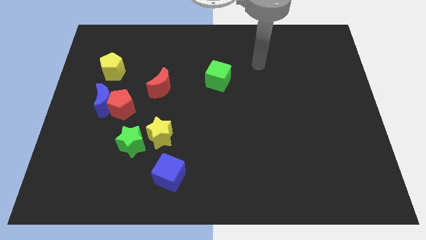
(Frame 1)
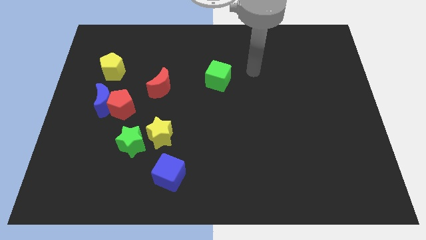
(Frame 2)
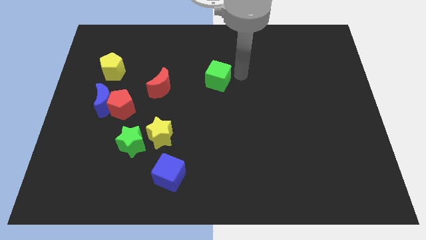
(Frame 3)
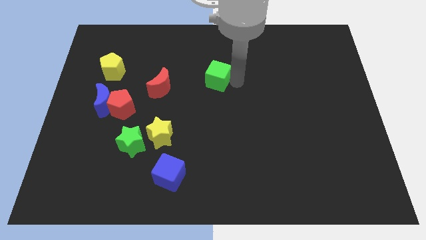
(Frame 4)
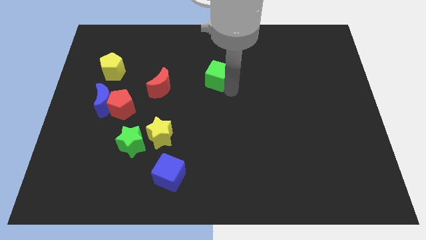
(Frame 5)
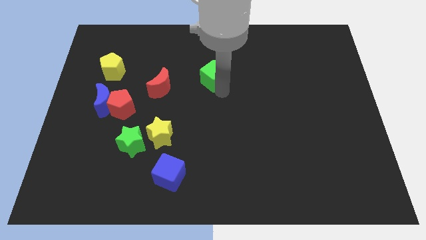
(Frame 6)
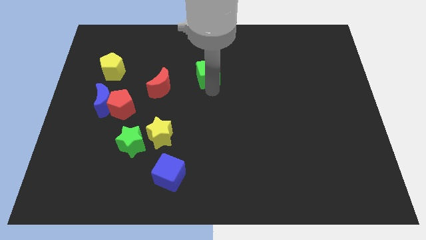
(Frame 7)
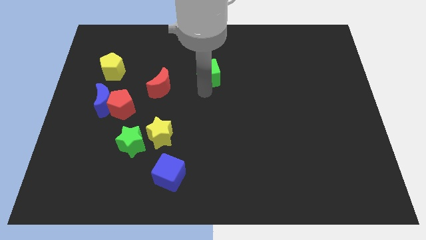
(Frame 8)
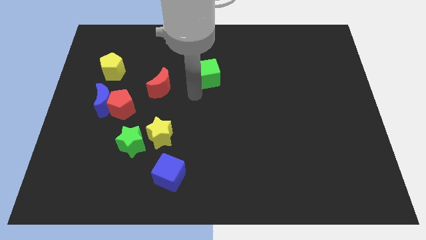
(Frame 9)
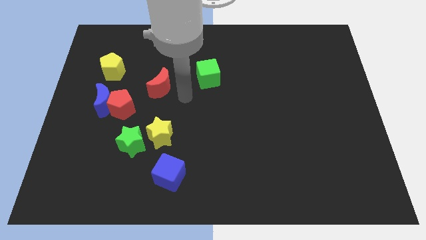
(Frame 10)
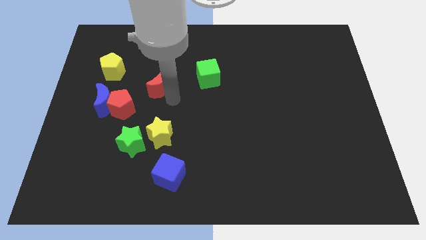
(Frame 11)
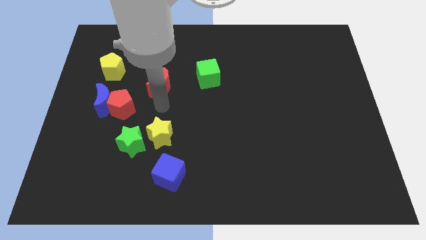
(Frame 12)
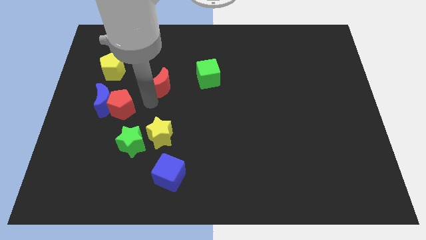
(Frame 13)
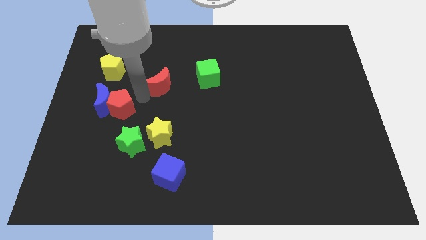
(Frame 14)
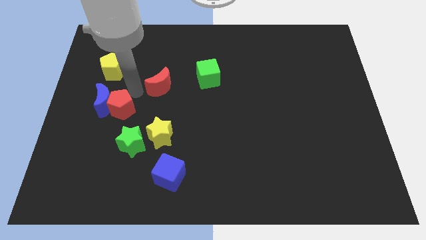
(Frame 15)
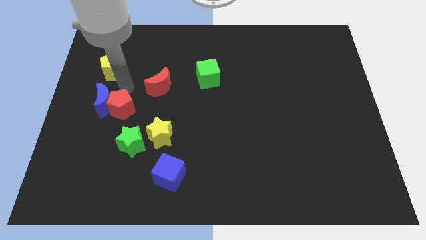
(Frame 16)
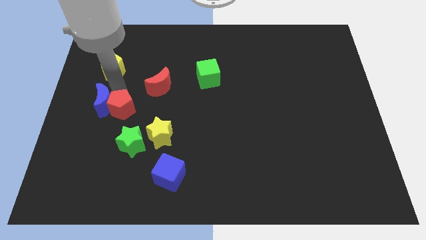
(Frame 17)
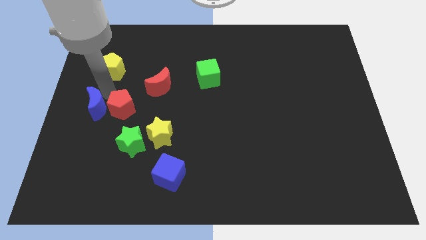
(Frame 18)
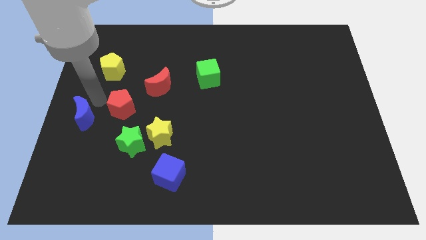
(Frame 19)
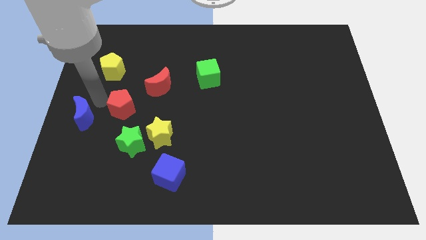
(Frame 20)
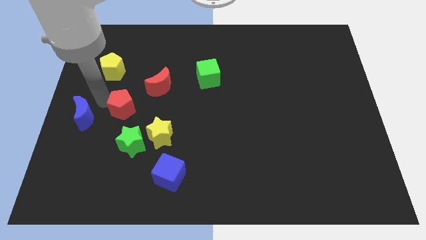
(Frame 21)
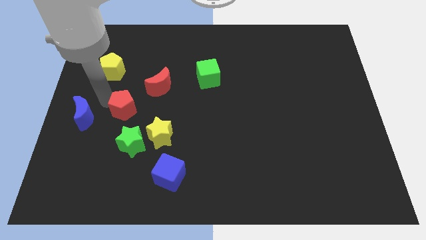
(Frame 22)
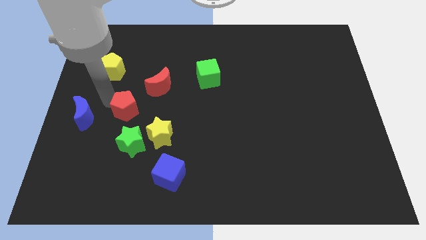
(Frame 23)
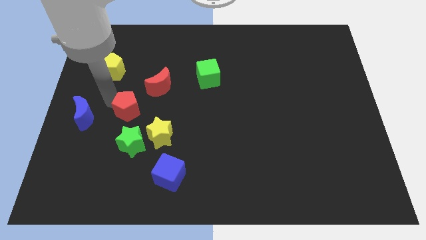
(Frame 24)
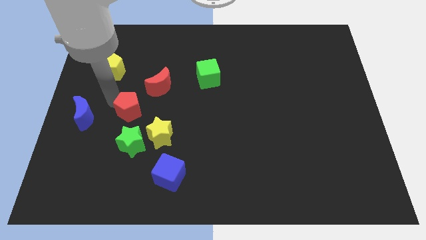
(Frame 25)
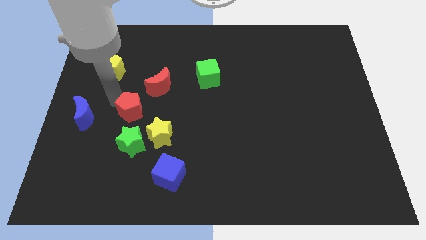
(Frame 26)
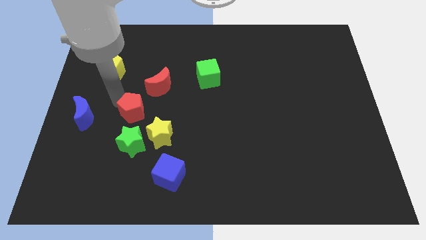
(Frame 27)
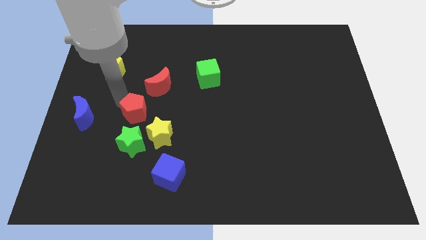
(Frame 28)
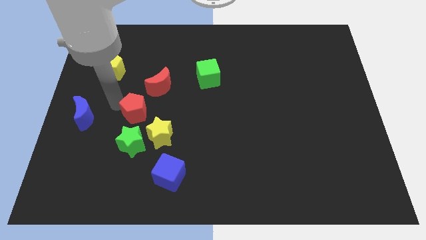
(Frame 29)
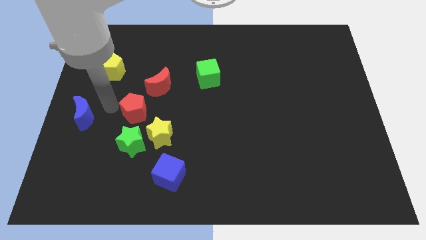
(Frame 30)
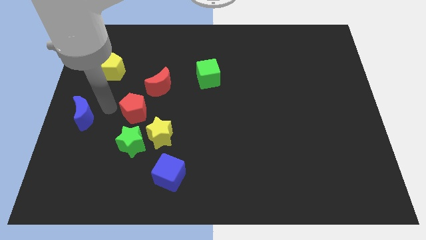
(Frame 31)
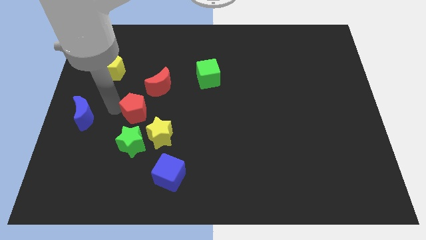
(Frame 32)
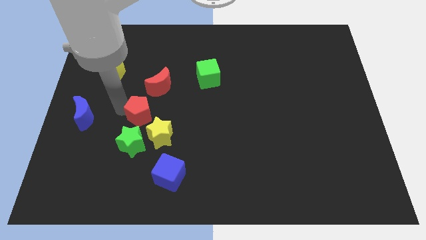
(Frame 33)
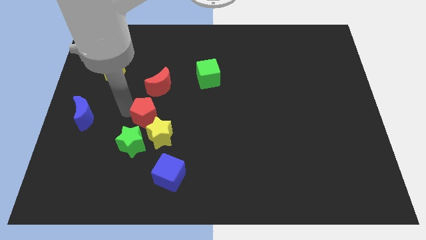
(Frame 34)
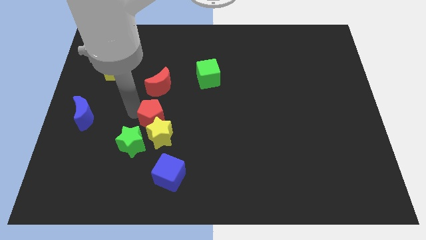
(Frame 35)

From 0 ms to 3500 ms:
push the red pentagon down and right a bit

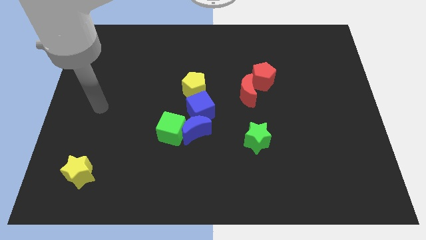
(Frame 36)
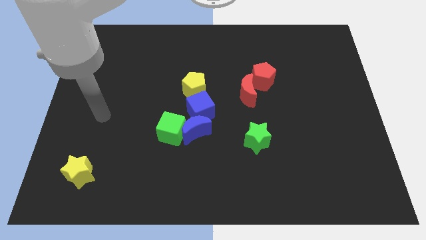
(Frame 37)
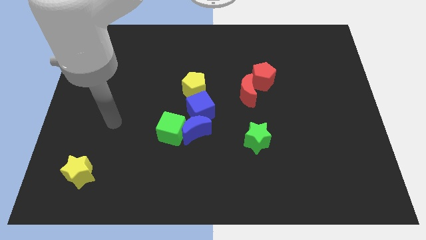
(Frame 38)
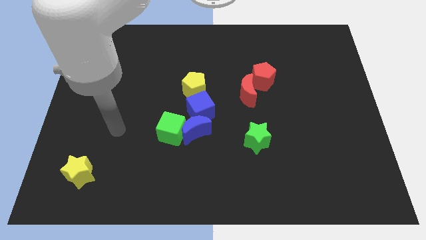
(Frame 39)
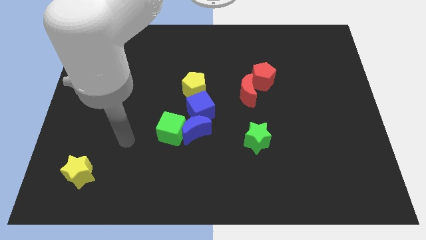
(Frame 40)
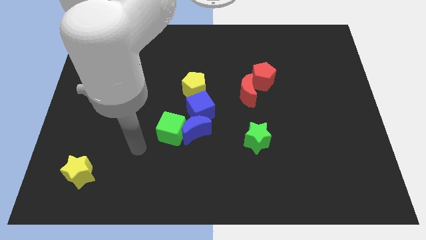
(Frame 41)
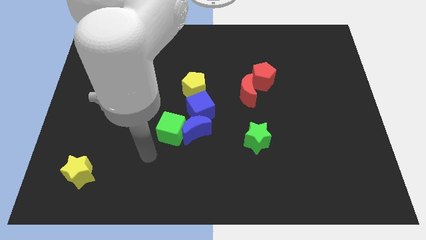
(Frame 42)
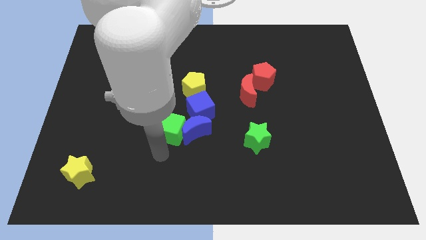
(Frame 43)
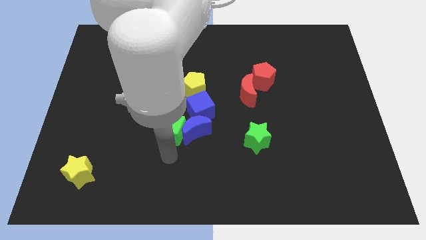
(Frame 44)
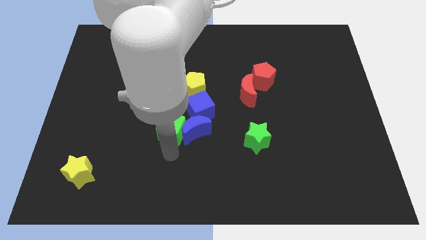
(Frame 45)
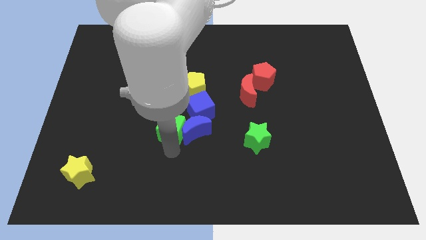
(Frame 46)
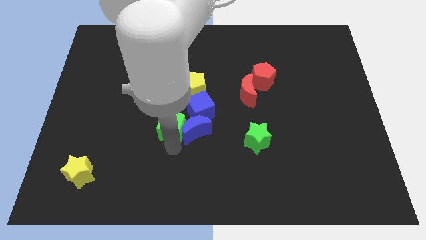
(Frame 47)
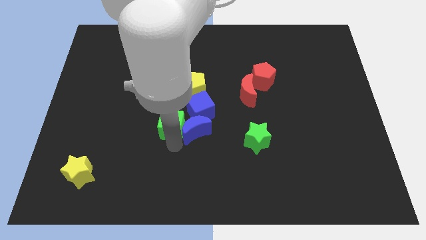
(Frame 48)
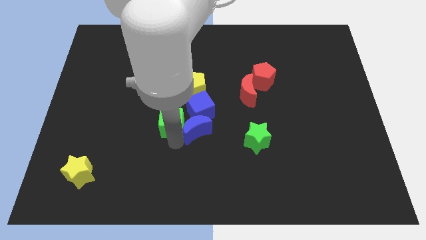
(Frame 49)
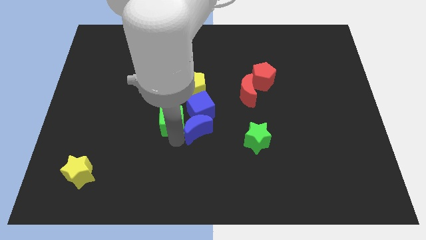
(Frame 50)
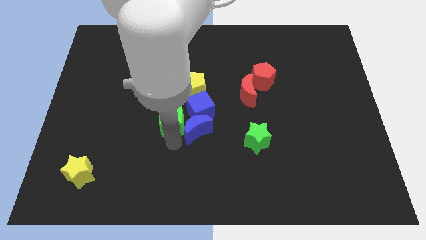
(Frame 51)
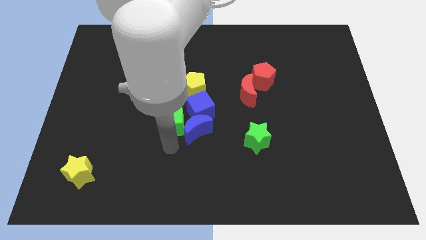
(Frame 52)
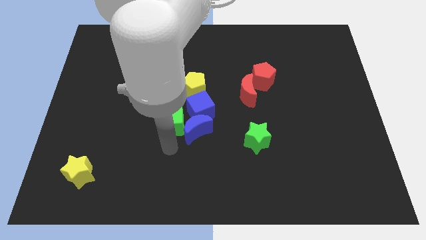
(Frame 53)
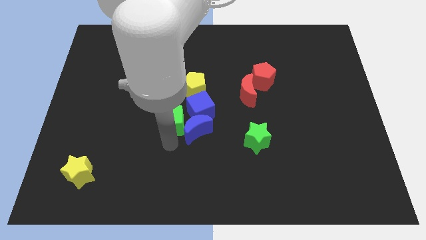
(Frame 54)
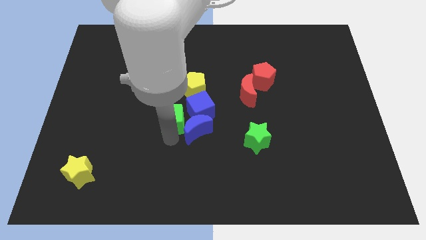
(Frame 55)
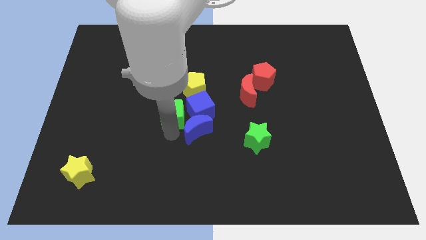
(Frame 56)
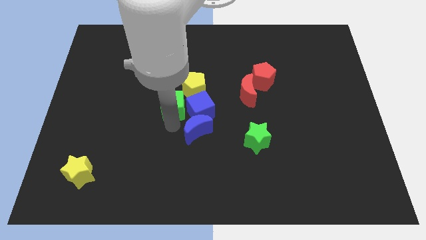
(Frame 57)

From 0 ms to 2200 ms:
push the green cube a little bit upwards

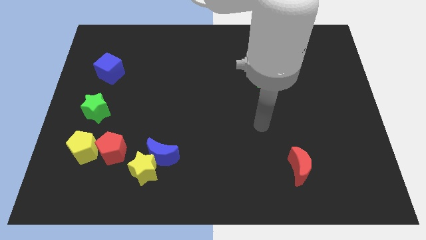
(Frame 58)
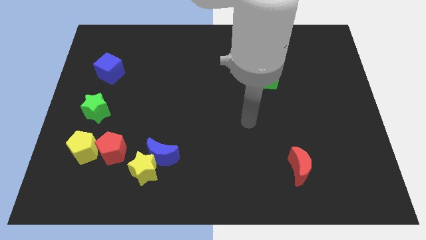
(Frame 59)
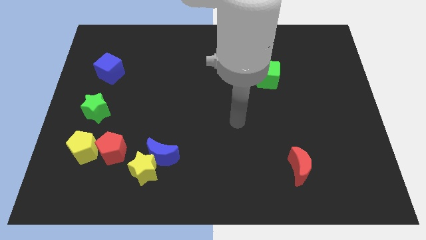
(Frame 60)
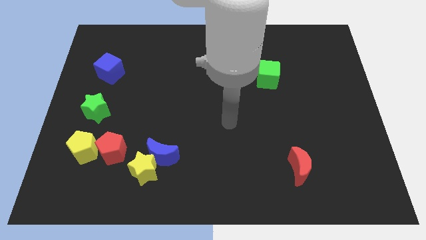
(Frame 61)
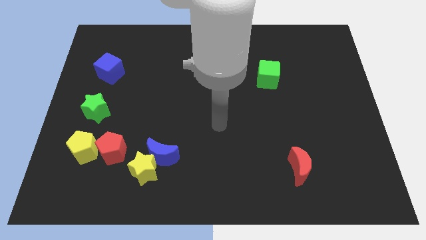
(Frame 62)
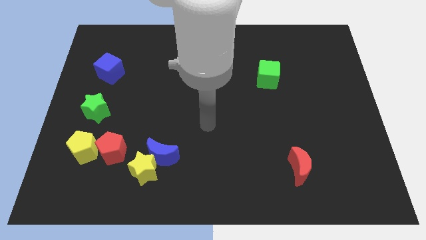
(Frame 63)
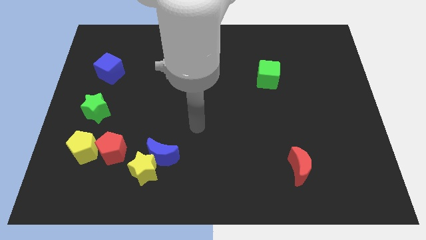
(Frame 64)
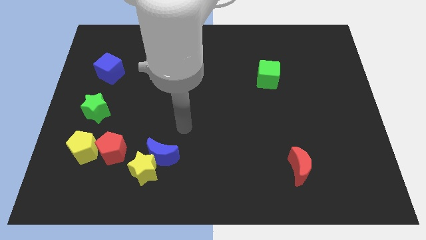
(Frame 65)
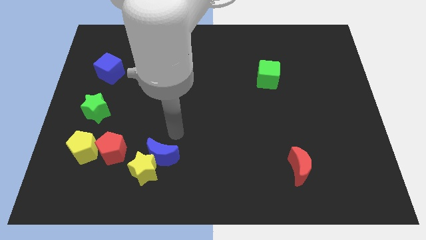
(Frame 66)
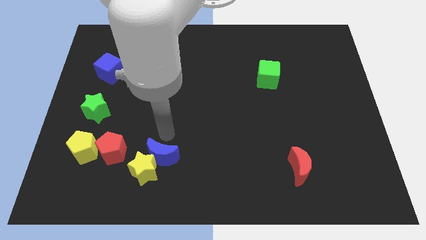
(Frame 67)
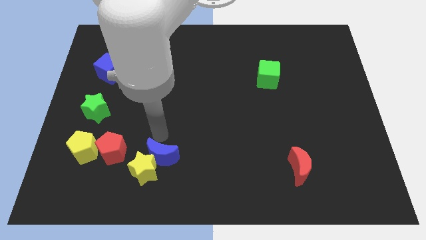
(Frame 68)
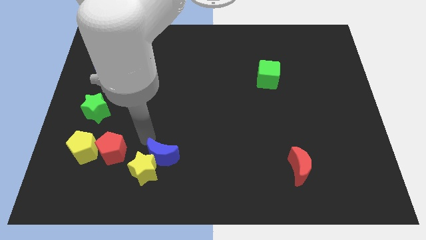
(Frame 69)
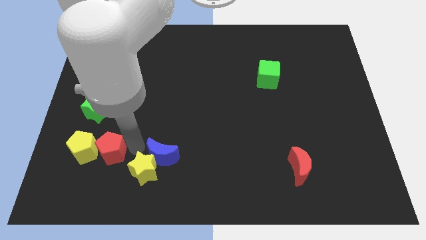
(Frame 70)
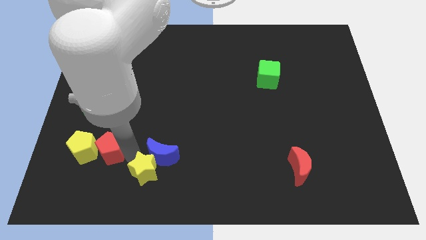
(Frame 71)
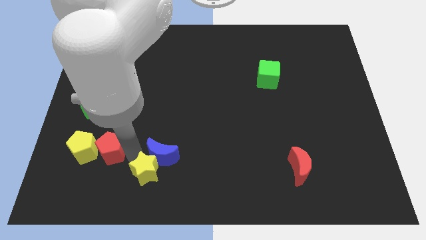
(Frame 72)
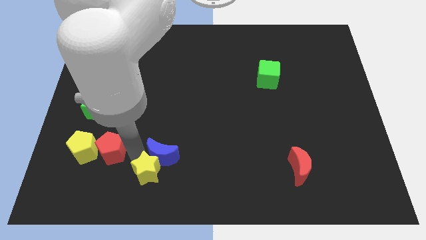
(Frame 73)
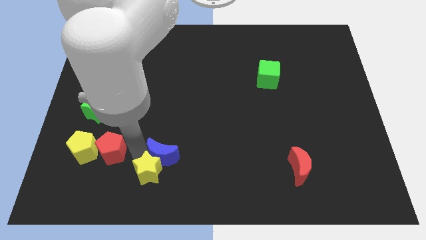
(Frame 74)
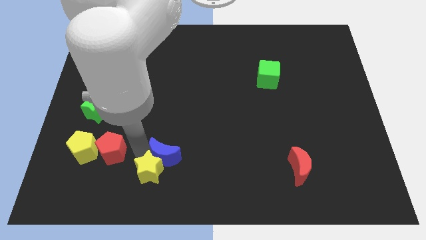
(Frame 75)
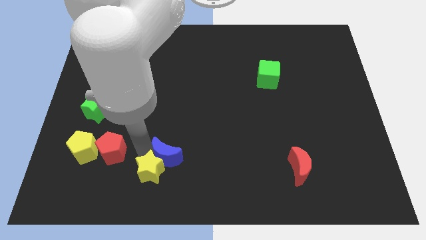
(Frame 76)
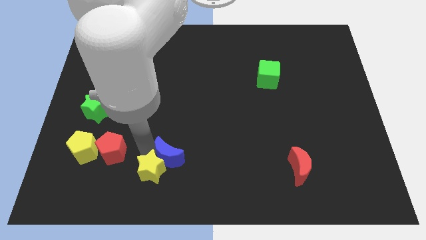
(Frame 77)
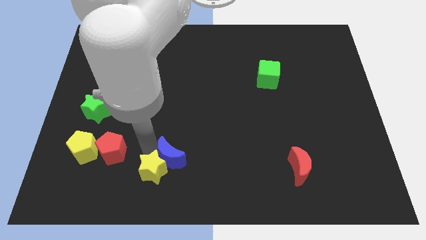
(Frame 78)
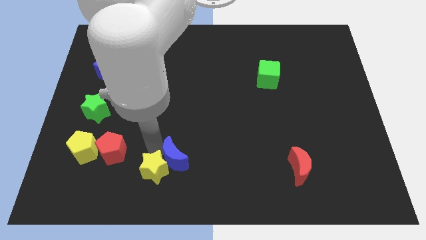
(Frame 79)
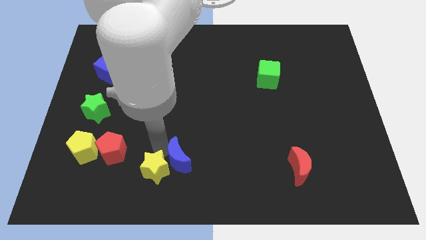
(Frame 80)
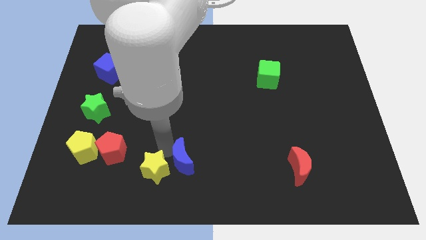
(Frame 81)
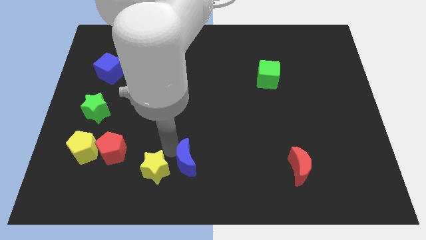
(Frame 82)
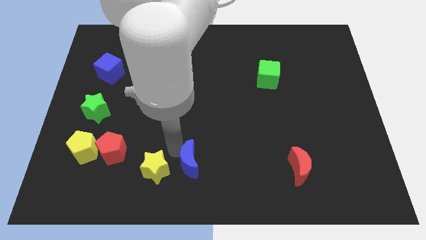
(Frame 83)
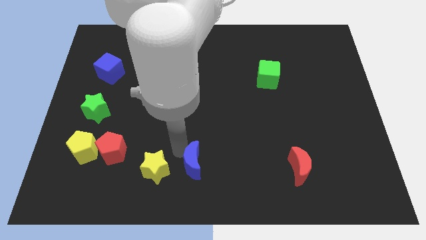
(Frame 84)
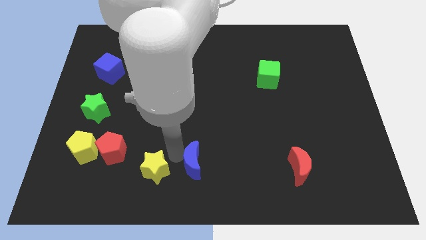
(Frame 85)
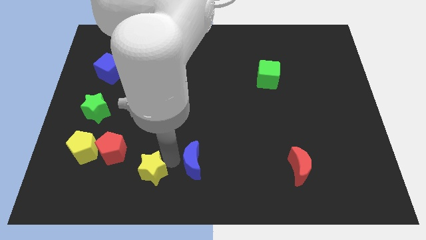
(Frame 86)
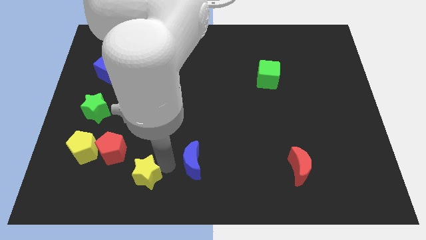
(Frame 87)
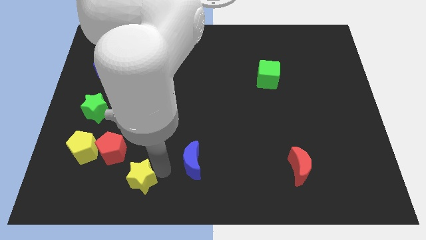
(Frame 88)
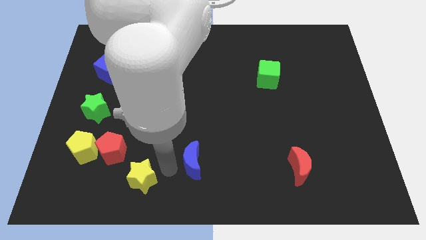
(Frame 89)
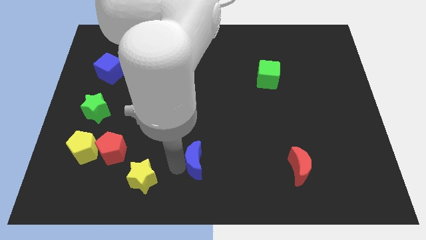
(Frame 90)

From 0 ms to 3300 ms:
move the blue moon right a bit
